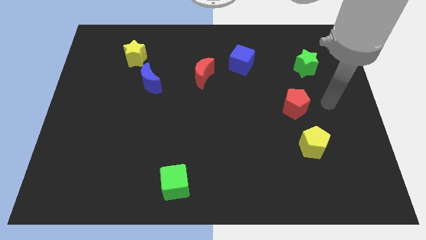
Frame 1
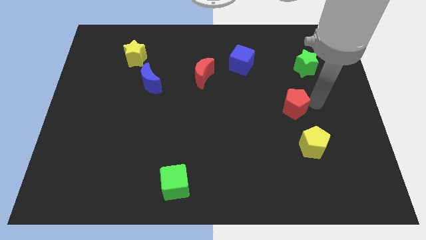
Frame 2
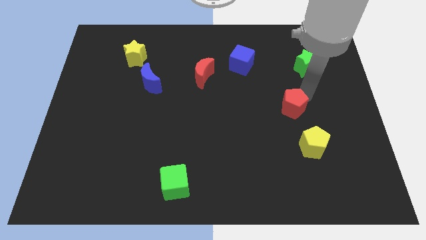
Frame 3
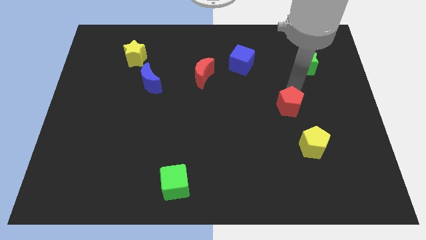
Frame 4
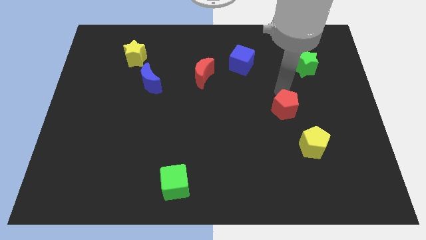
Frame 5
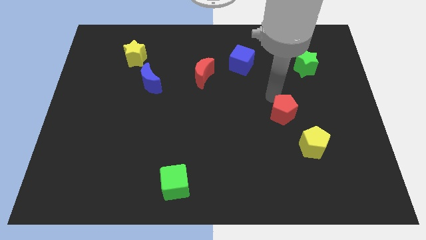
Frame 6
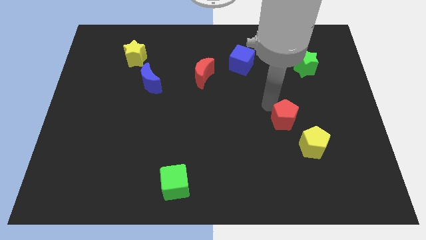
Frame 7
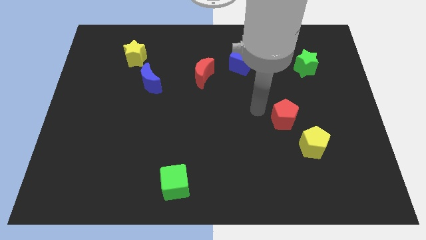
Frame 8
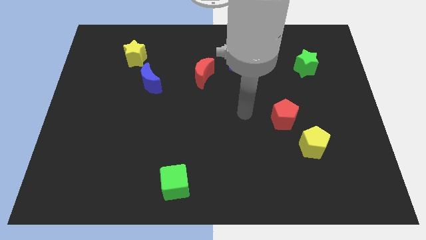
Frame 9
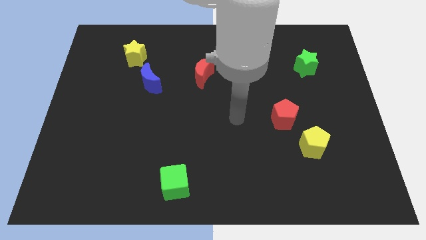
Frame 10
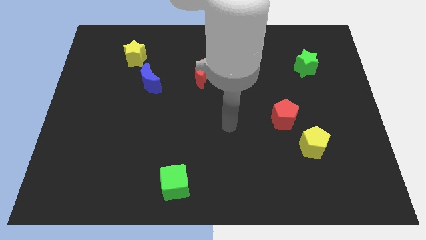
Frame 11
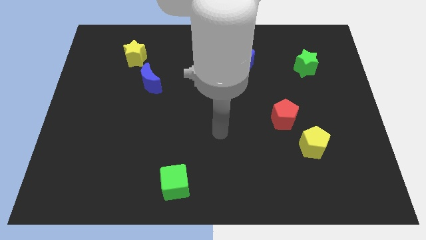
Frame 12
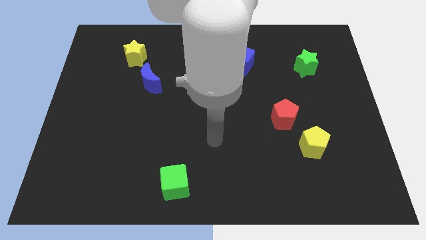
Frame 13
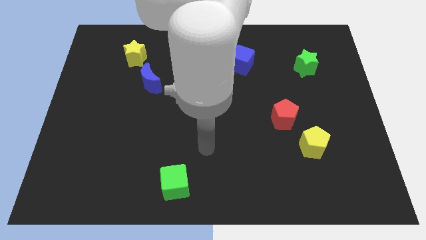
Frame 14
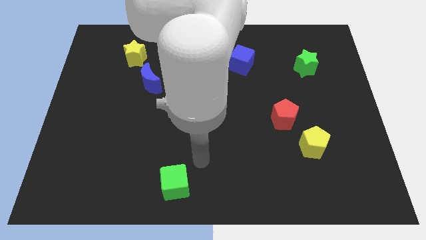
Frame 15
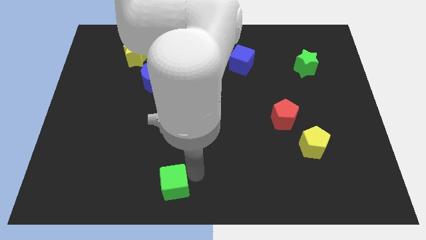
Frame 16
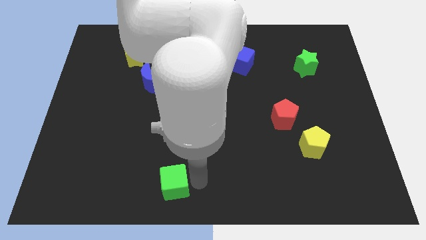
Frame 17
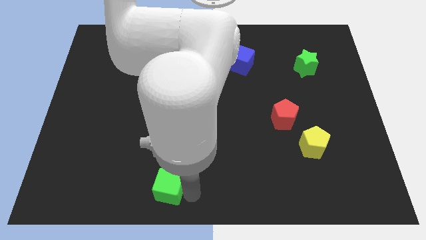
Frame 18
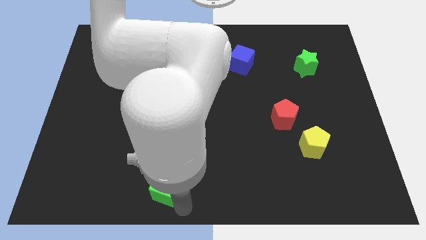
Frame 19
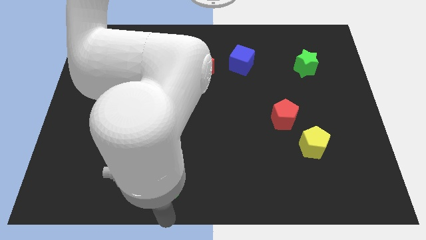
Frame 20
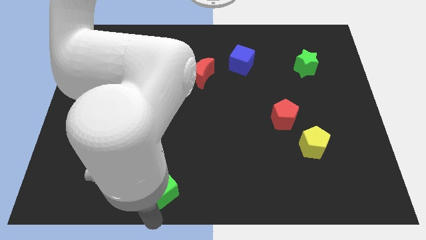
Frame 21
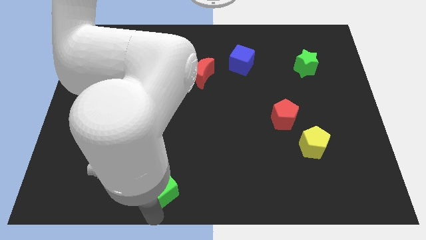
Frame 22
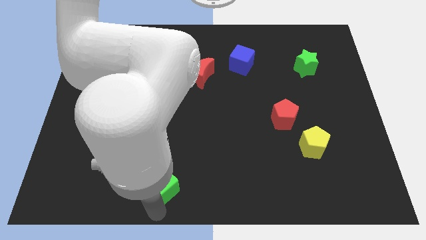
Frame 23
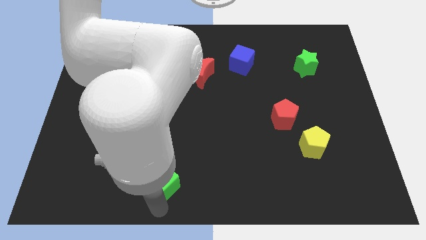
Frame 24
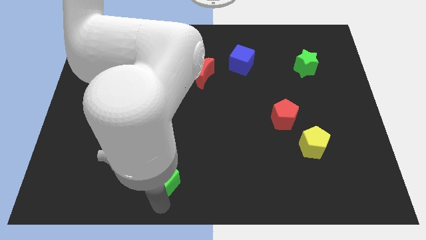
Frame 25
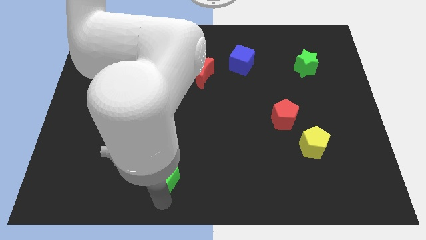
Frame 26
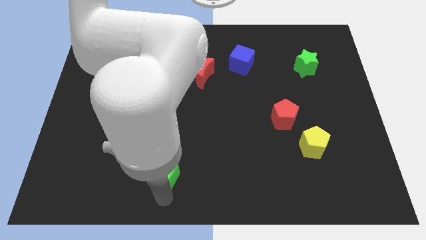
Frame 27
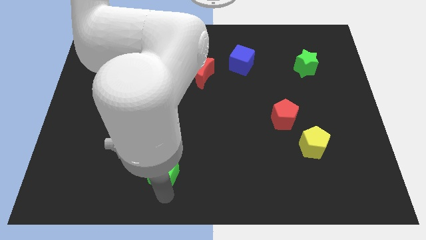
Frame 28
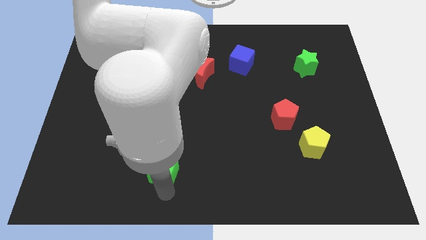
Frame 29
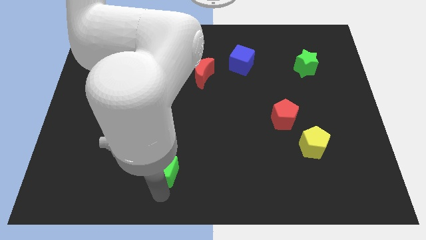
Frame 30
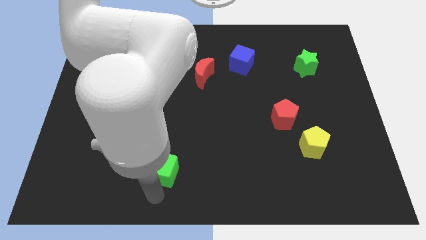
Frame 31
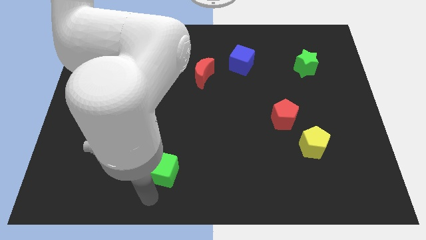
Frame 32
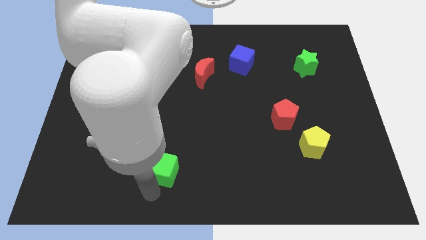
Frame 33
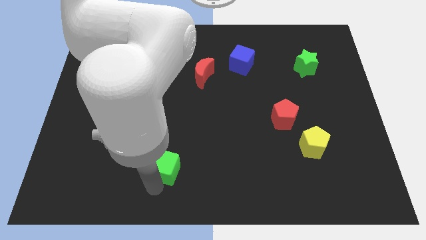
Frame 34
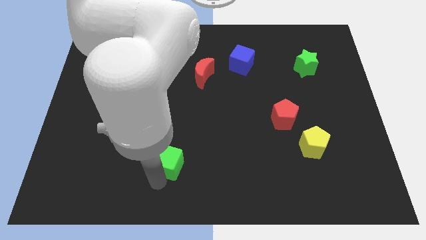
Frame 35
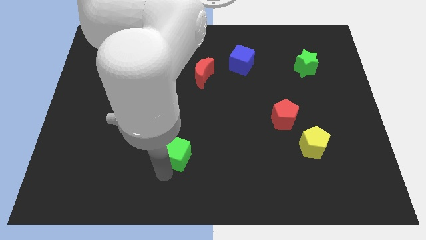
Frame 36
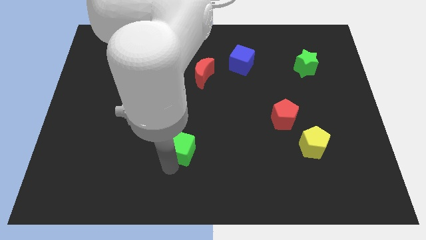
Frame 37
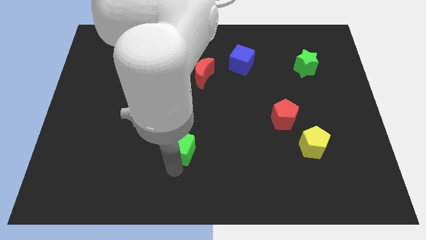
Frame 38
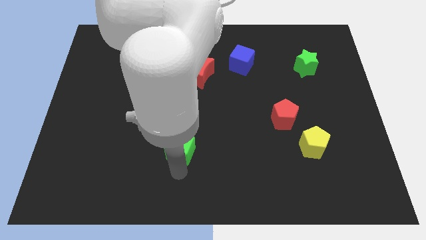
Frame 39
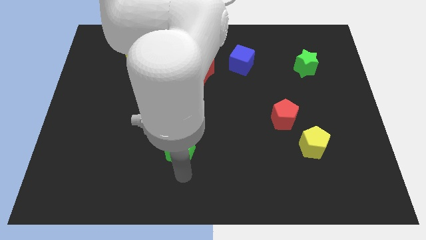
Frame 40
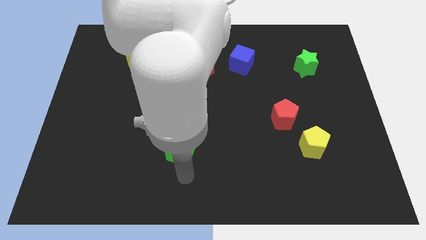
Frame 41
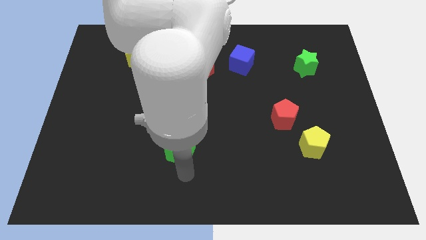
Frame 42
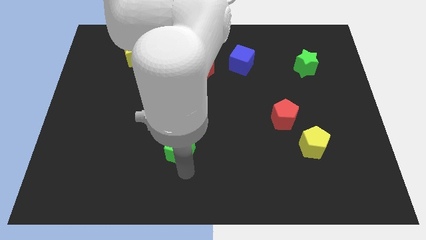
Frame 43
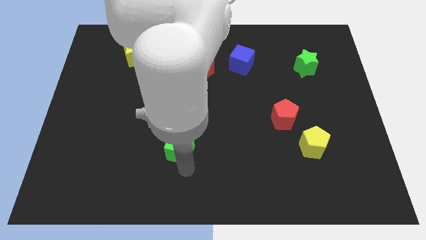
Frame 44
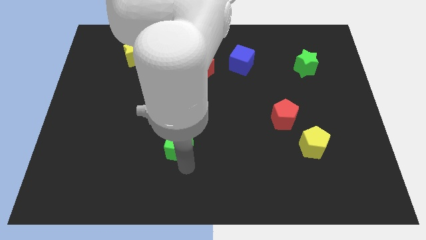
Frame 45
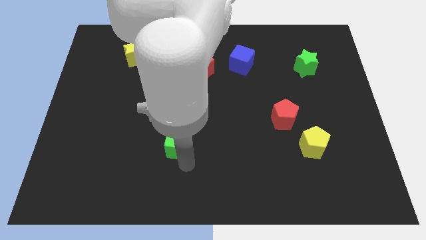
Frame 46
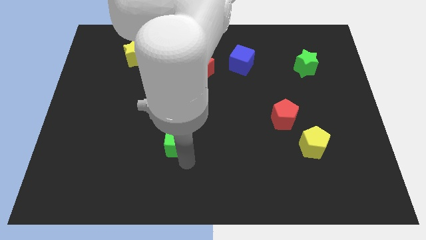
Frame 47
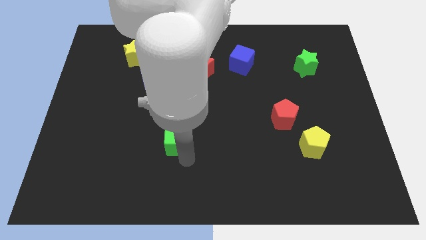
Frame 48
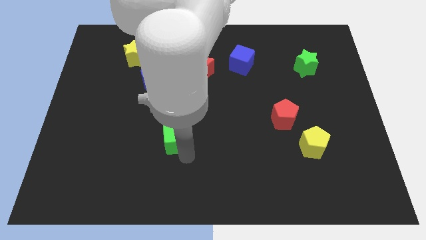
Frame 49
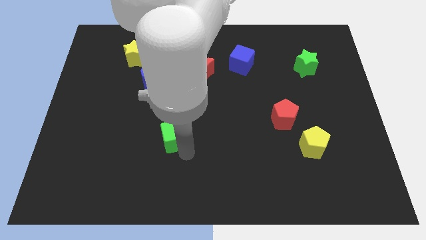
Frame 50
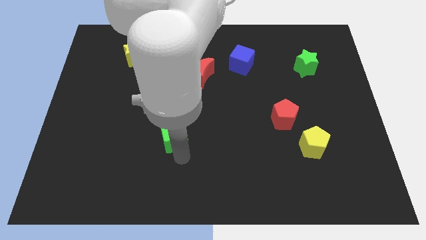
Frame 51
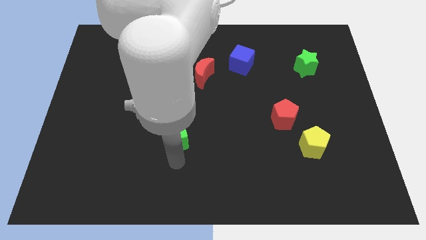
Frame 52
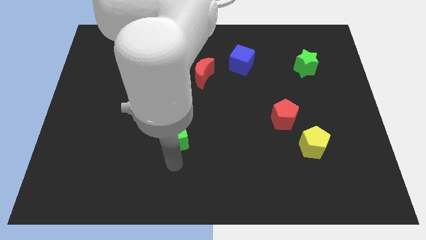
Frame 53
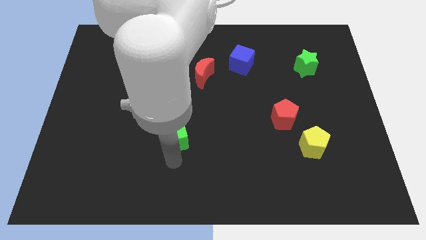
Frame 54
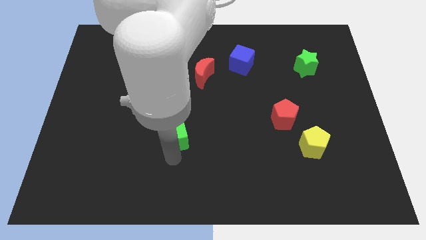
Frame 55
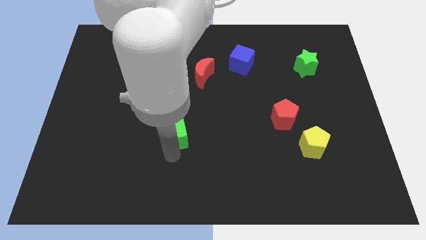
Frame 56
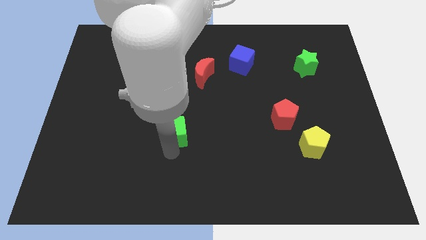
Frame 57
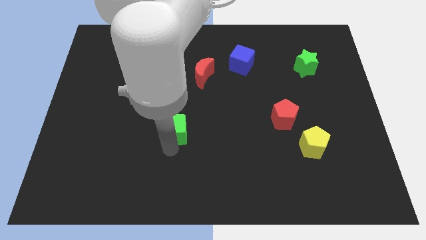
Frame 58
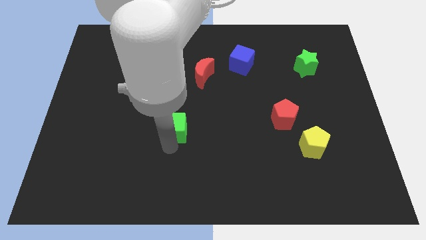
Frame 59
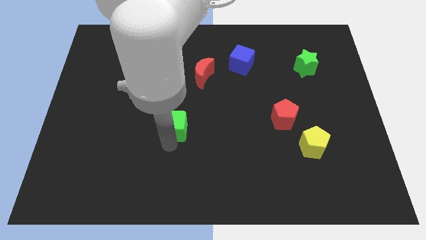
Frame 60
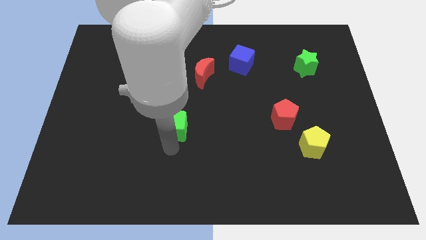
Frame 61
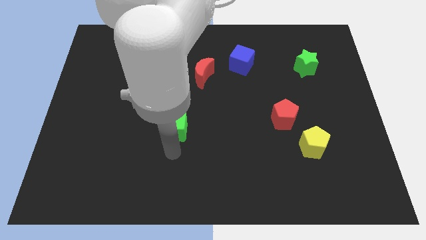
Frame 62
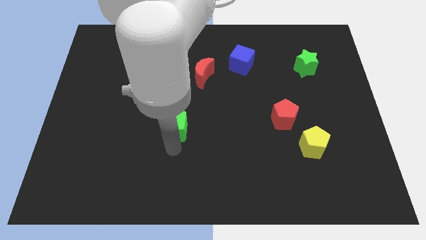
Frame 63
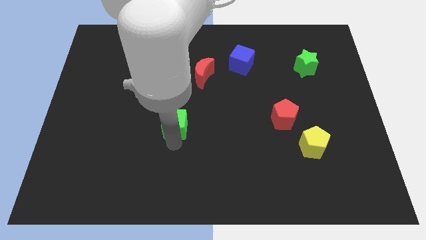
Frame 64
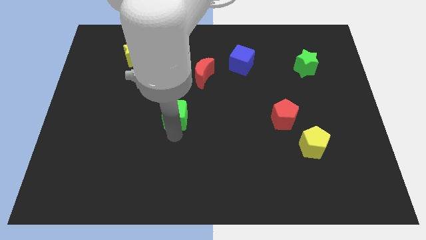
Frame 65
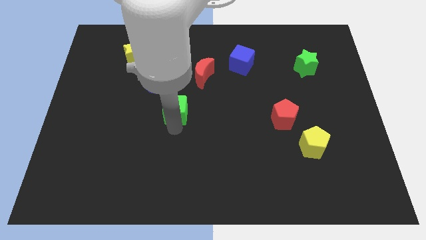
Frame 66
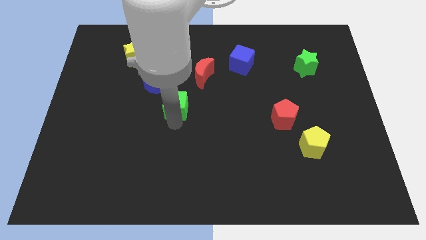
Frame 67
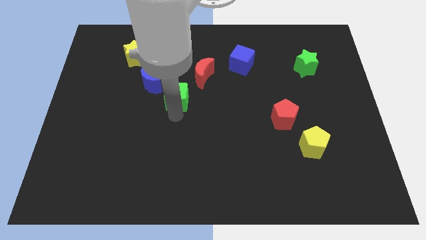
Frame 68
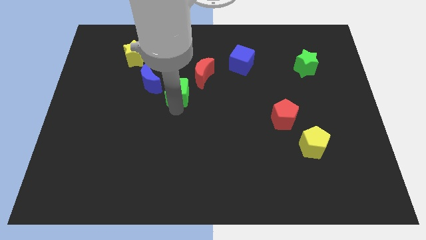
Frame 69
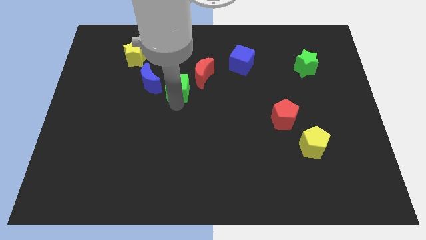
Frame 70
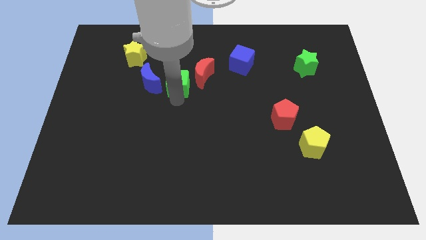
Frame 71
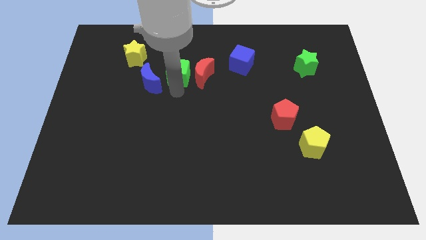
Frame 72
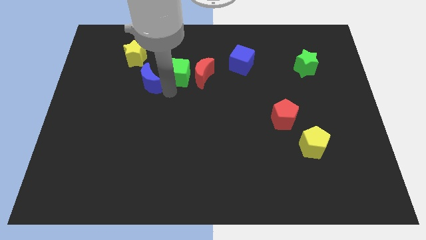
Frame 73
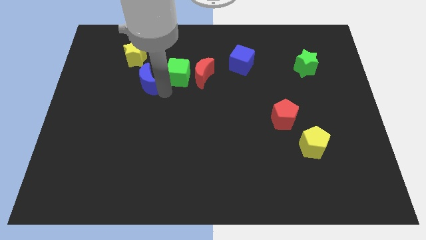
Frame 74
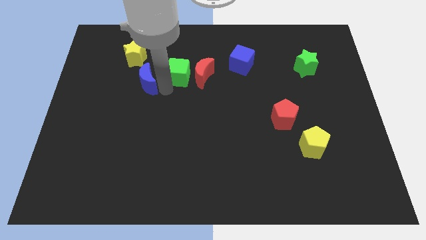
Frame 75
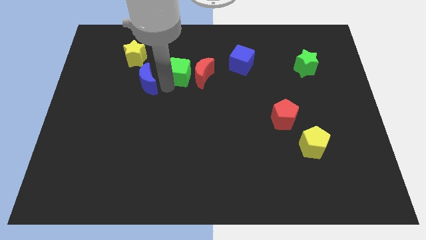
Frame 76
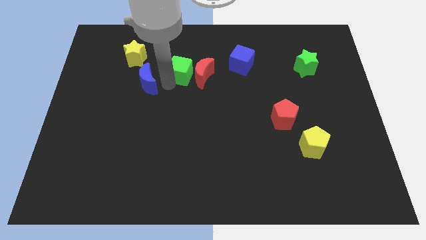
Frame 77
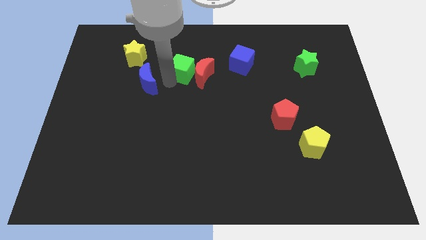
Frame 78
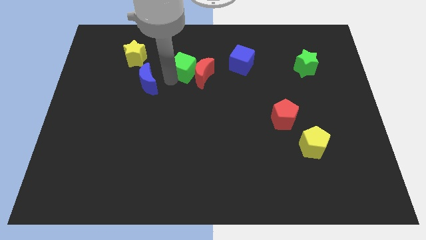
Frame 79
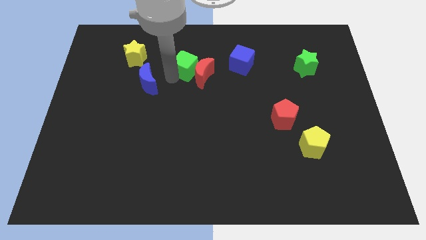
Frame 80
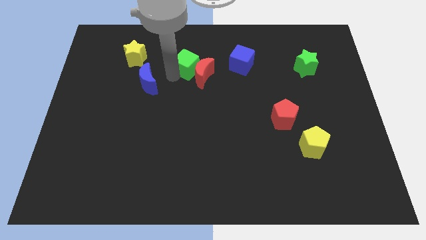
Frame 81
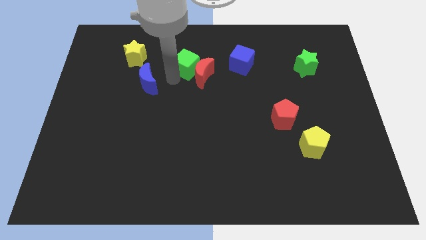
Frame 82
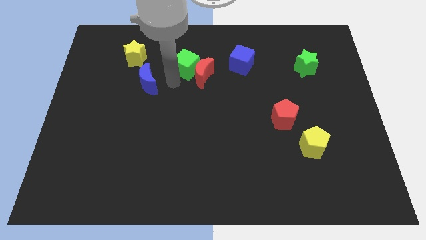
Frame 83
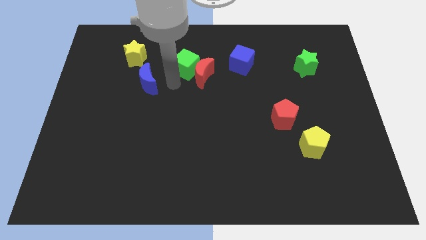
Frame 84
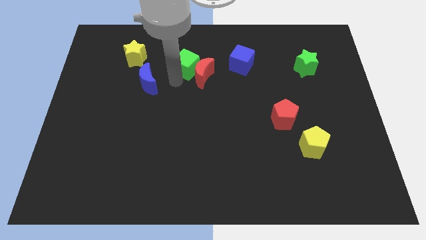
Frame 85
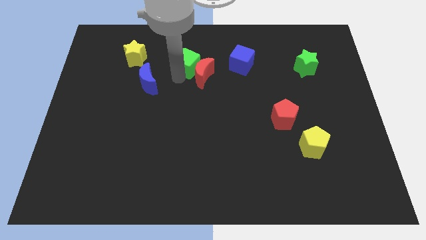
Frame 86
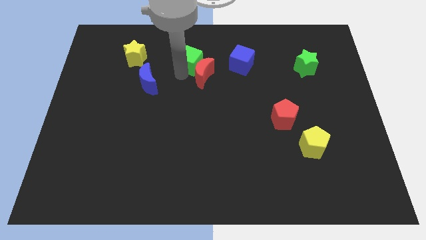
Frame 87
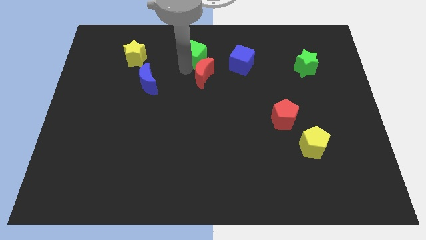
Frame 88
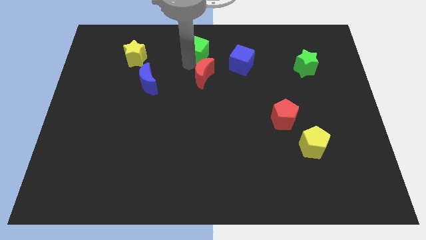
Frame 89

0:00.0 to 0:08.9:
slide the green cube to the top
